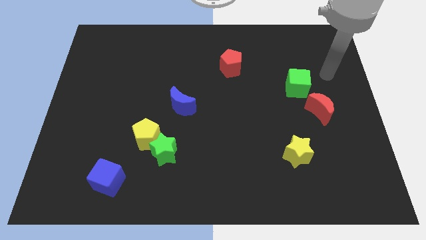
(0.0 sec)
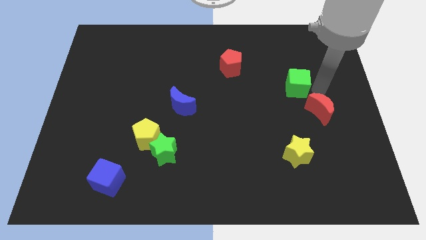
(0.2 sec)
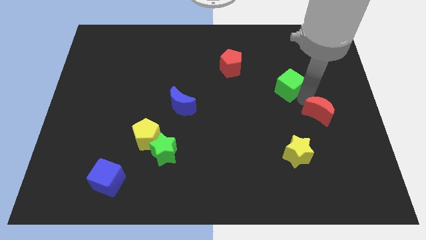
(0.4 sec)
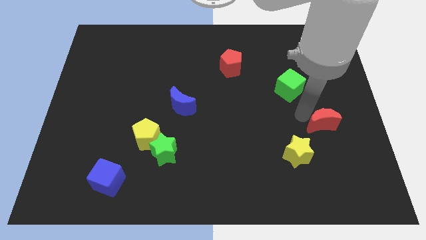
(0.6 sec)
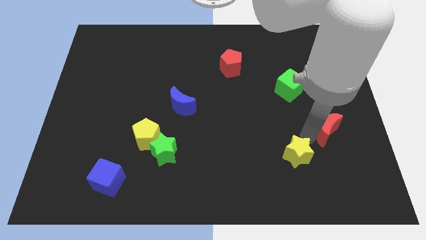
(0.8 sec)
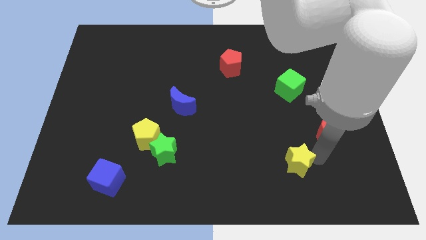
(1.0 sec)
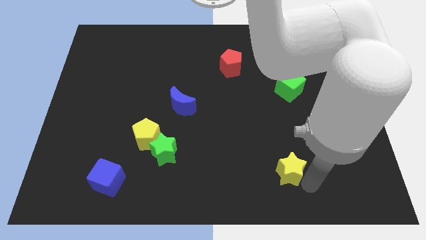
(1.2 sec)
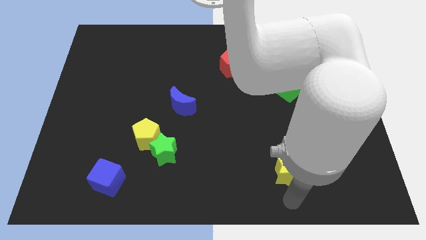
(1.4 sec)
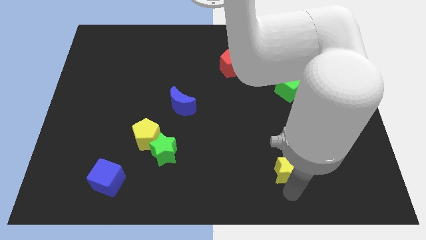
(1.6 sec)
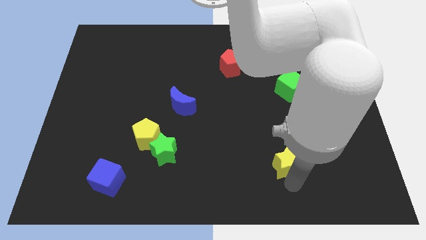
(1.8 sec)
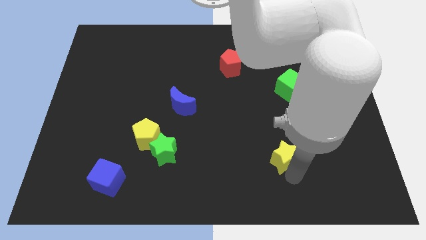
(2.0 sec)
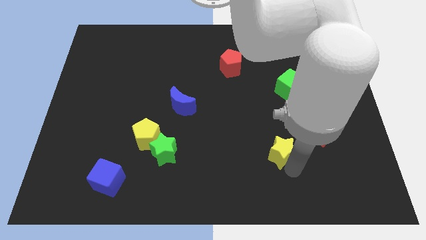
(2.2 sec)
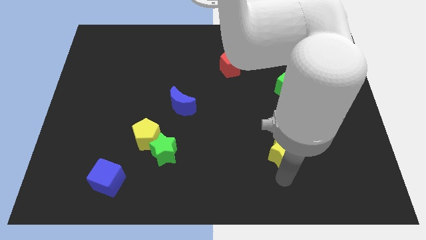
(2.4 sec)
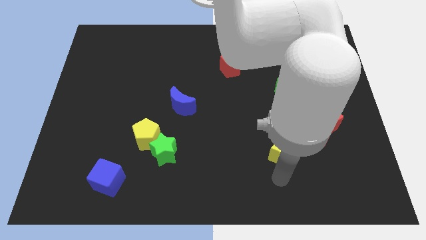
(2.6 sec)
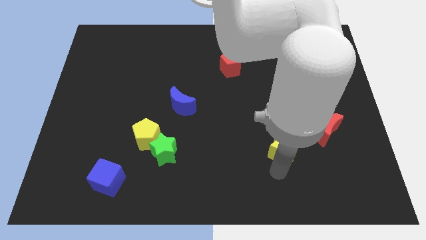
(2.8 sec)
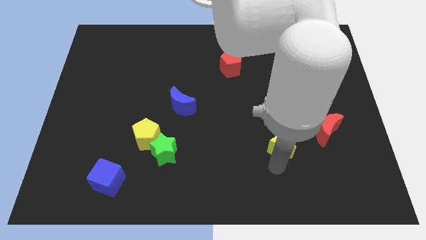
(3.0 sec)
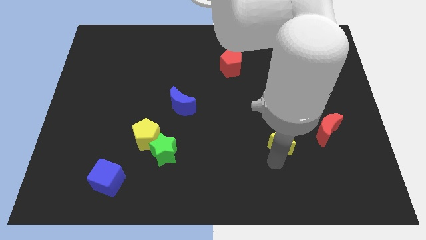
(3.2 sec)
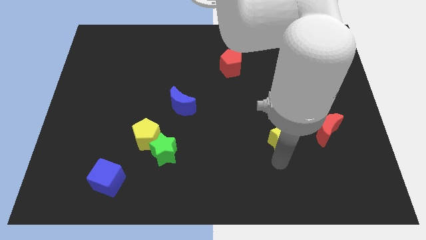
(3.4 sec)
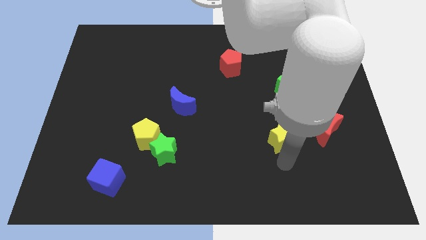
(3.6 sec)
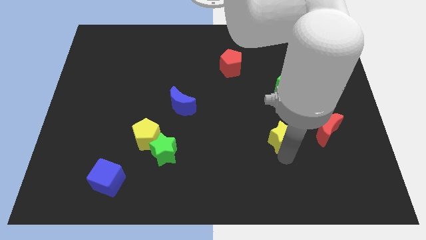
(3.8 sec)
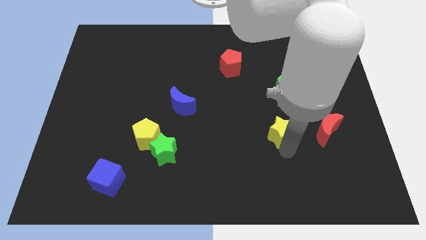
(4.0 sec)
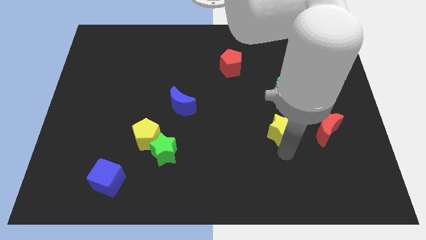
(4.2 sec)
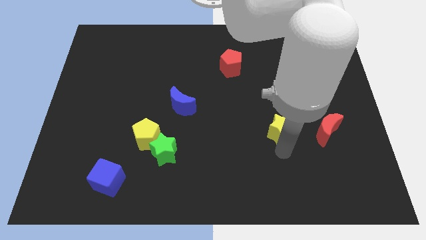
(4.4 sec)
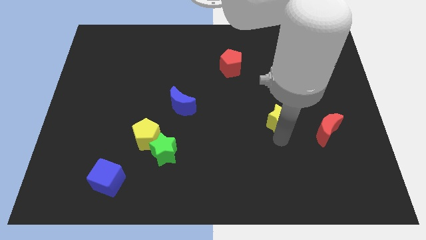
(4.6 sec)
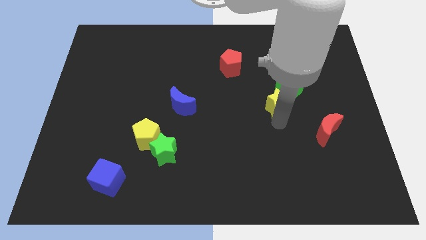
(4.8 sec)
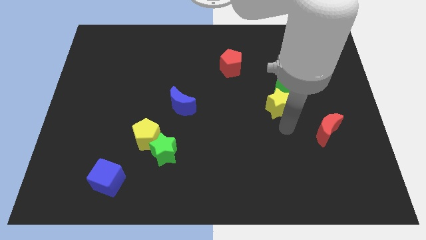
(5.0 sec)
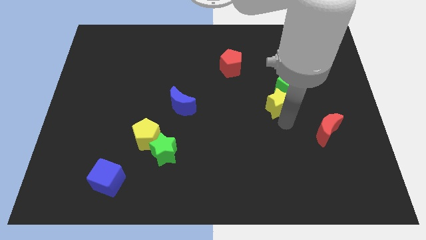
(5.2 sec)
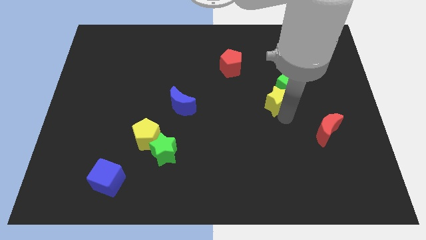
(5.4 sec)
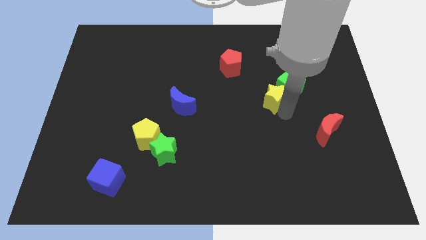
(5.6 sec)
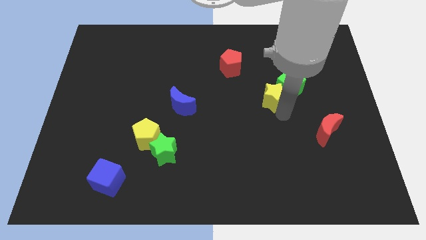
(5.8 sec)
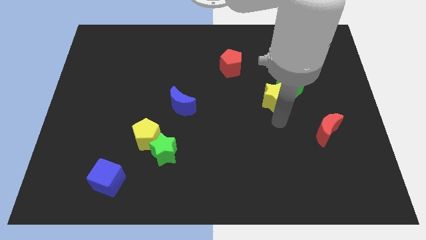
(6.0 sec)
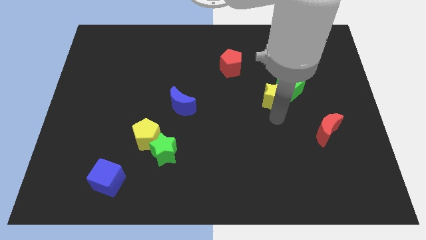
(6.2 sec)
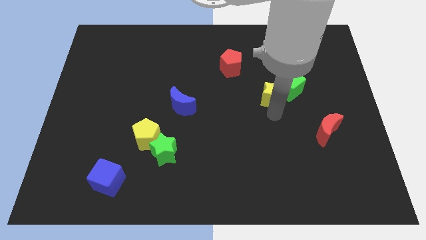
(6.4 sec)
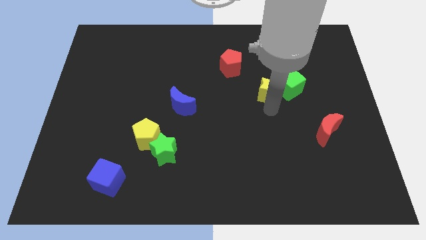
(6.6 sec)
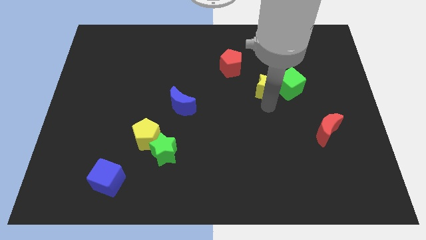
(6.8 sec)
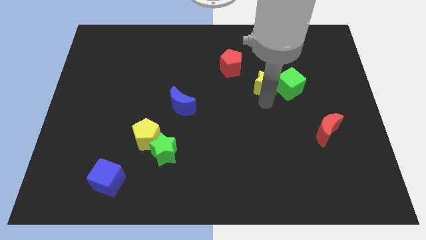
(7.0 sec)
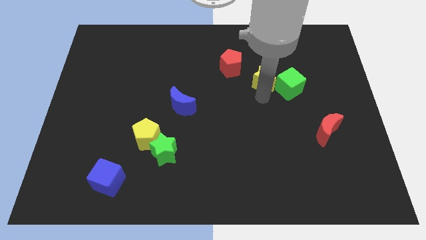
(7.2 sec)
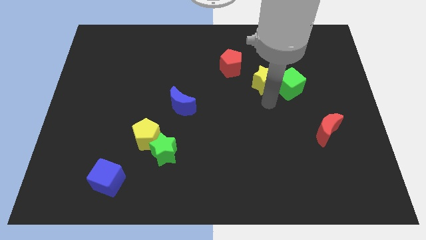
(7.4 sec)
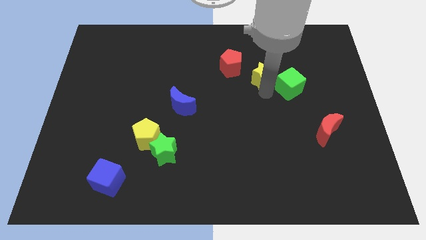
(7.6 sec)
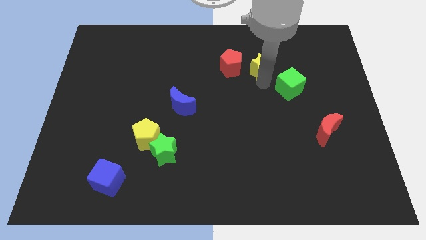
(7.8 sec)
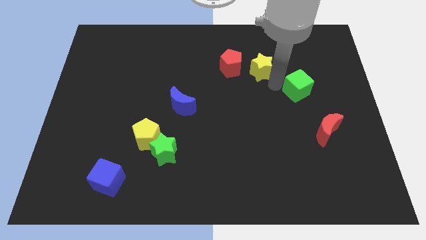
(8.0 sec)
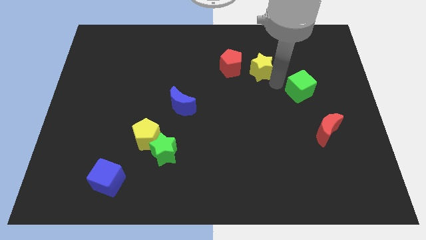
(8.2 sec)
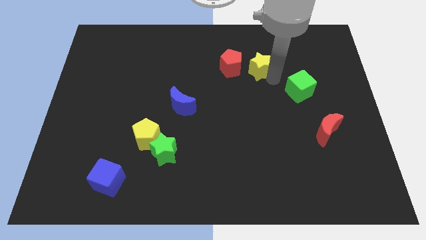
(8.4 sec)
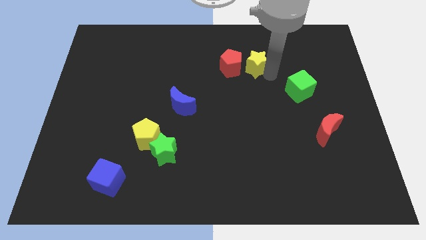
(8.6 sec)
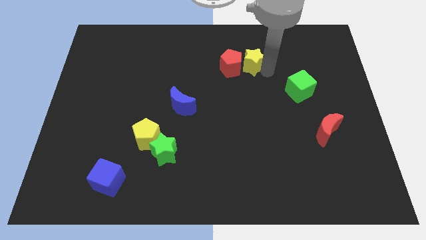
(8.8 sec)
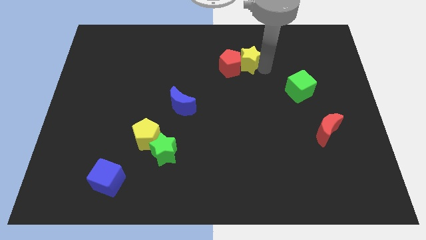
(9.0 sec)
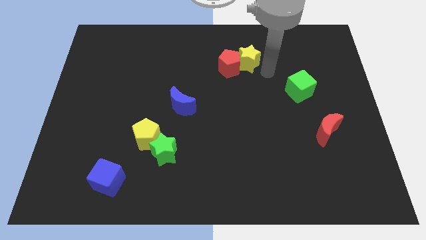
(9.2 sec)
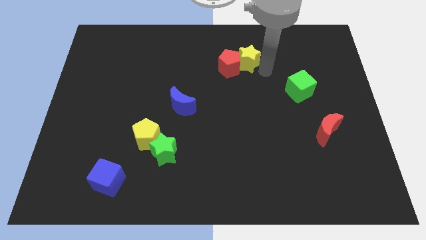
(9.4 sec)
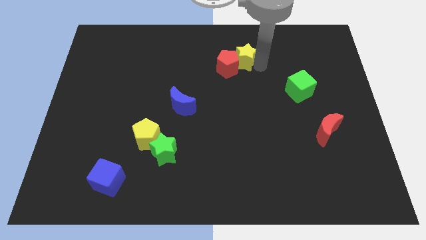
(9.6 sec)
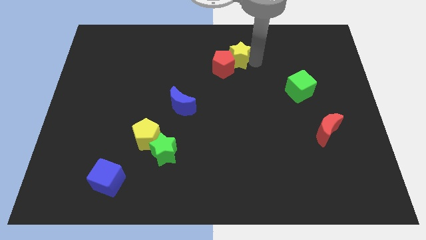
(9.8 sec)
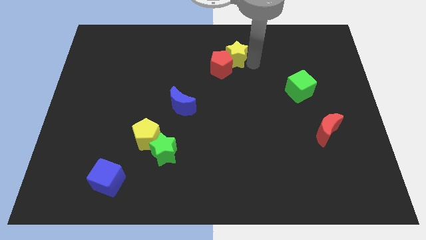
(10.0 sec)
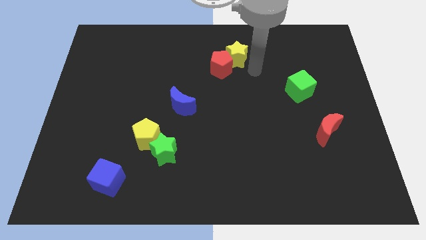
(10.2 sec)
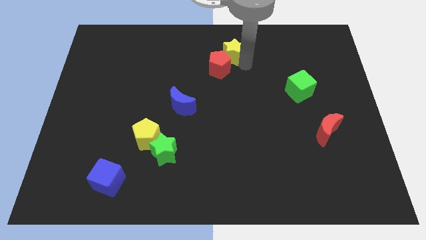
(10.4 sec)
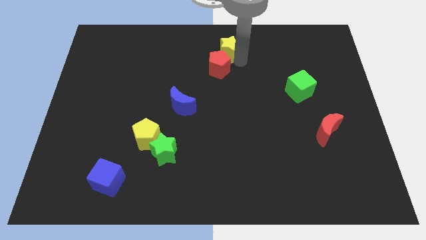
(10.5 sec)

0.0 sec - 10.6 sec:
slide the yellow star to the towards your base

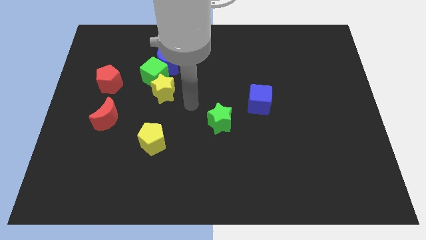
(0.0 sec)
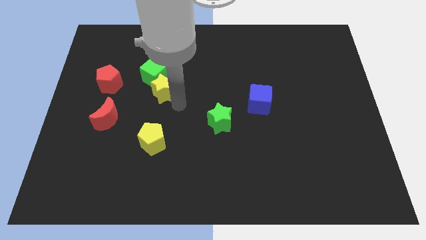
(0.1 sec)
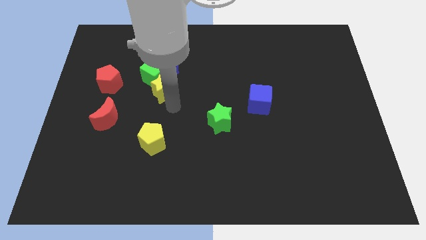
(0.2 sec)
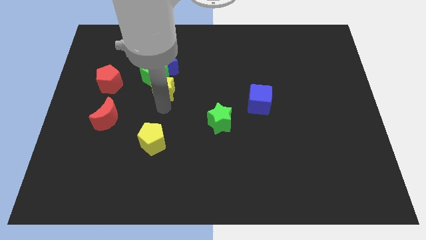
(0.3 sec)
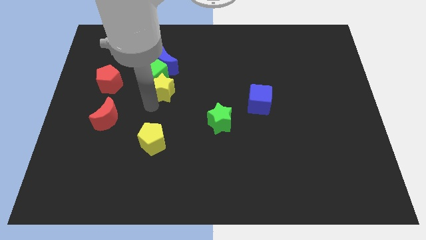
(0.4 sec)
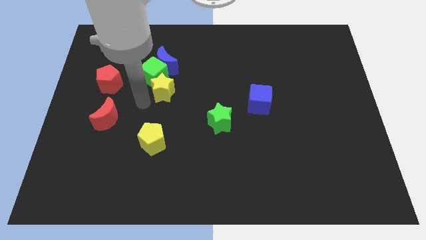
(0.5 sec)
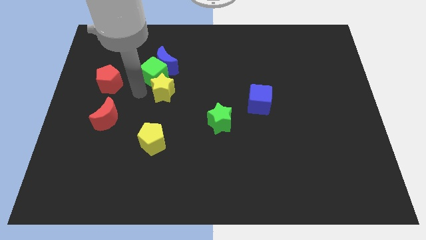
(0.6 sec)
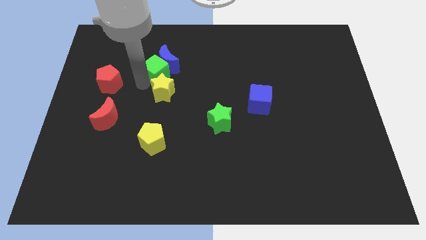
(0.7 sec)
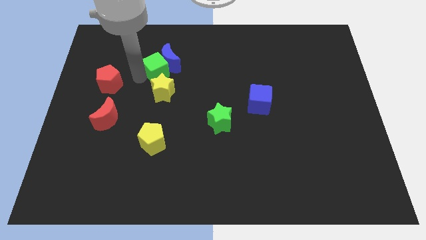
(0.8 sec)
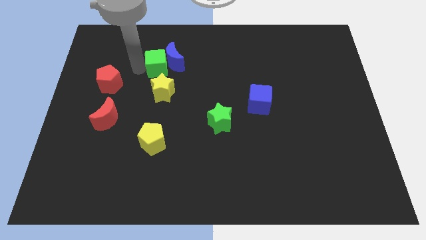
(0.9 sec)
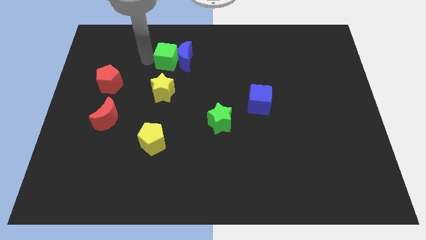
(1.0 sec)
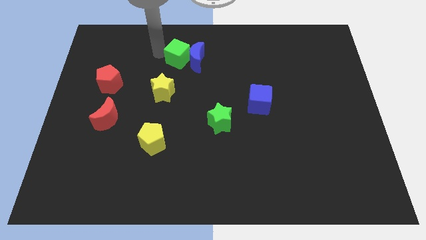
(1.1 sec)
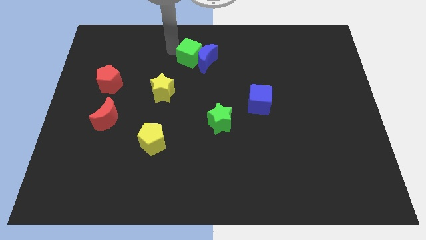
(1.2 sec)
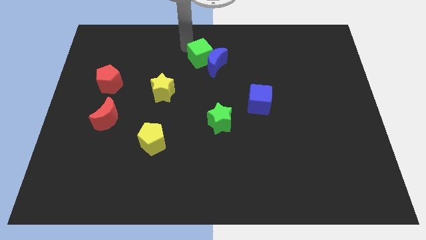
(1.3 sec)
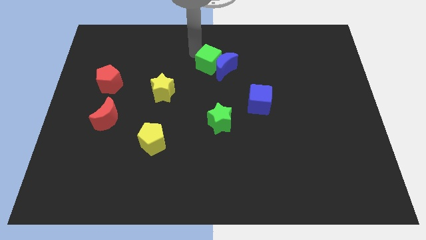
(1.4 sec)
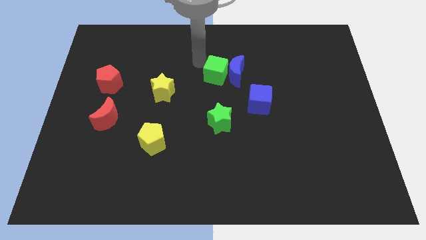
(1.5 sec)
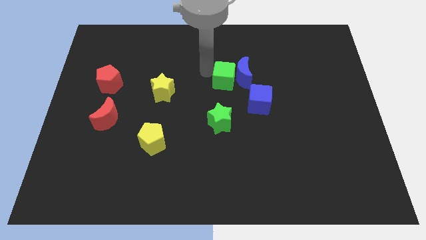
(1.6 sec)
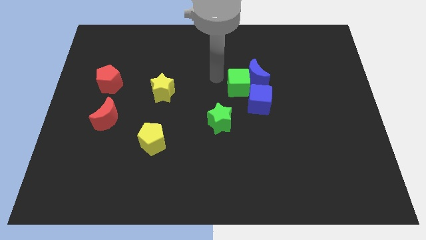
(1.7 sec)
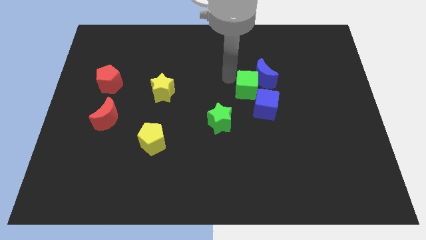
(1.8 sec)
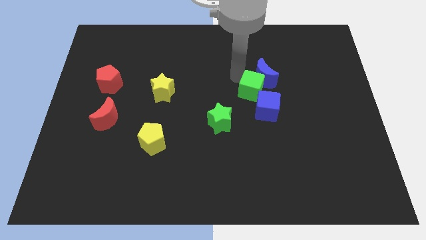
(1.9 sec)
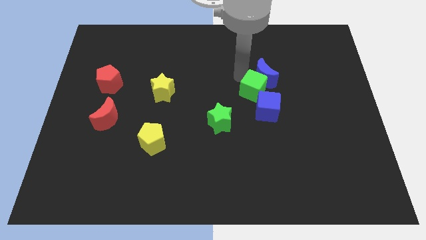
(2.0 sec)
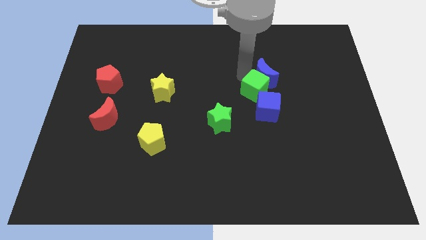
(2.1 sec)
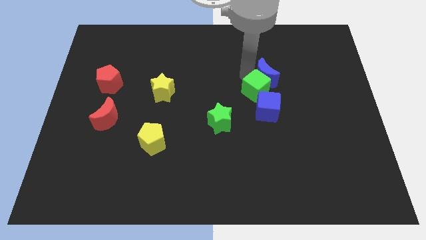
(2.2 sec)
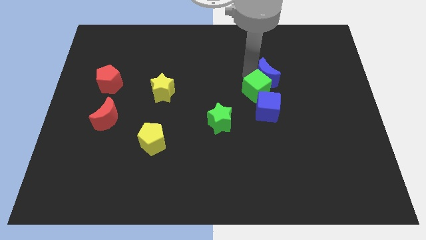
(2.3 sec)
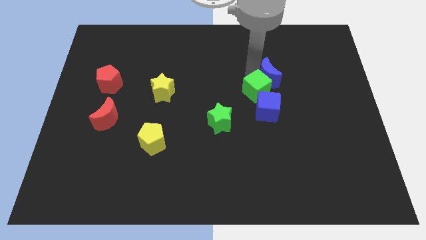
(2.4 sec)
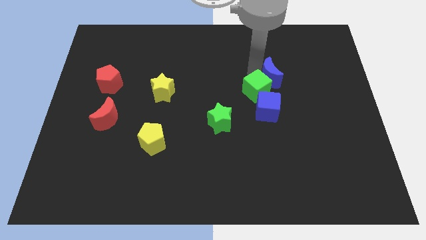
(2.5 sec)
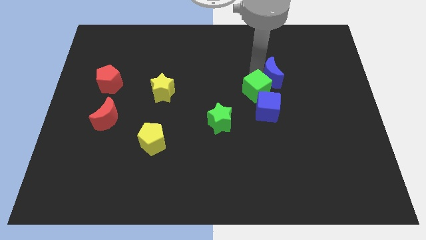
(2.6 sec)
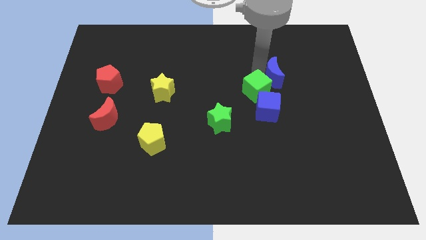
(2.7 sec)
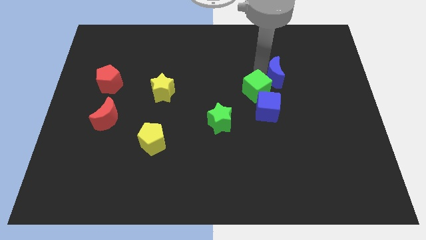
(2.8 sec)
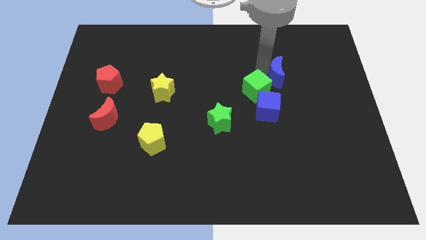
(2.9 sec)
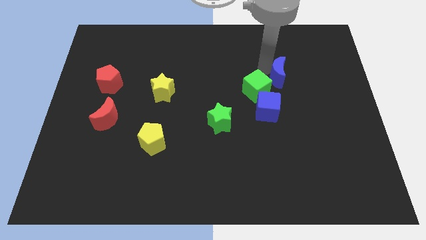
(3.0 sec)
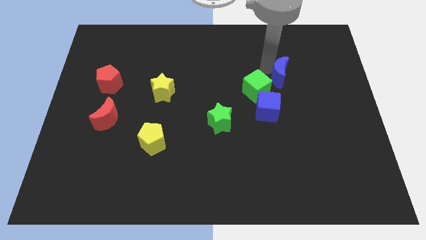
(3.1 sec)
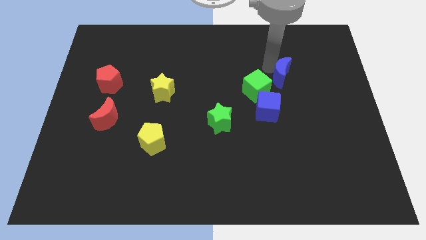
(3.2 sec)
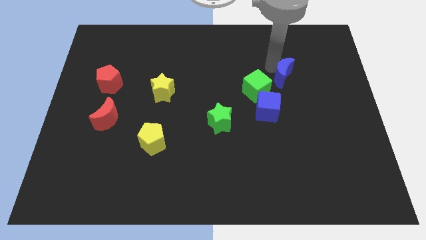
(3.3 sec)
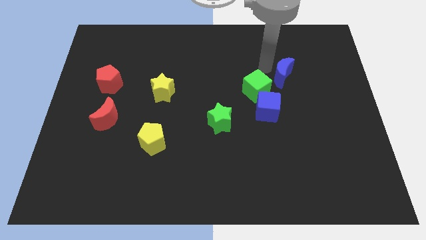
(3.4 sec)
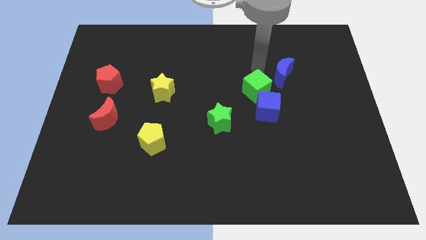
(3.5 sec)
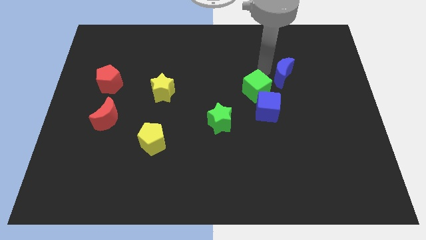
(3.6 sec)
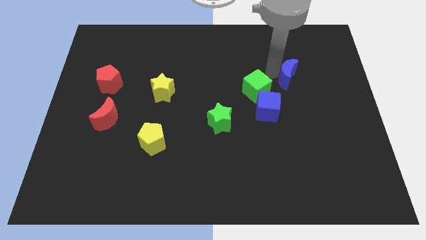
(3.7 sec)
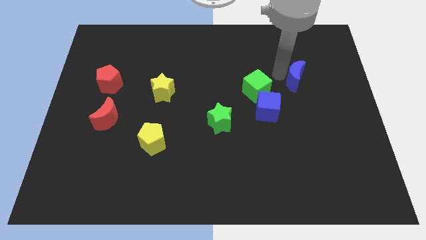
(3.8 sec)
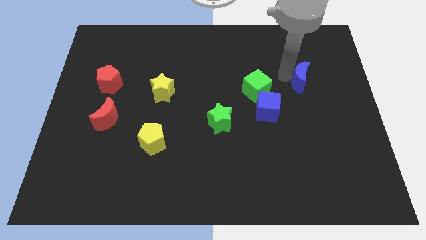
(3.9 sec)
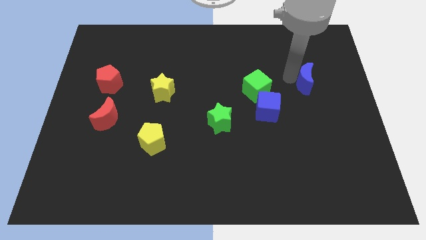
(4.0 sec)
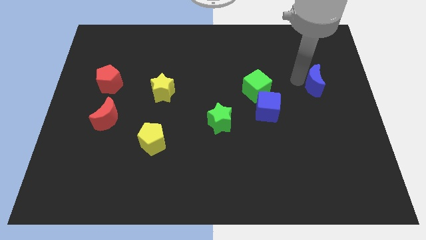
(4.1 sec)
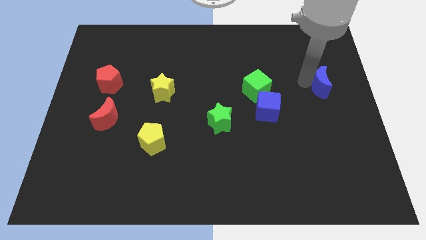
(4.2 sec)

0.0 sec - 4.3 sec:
put the blue moon to the right side of the board
